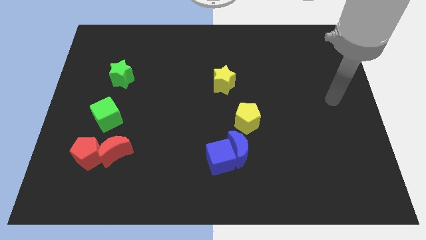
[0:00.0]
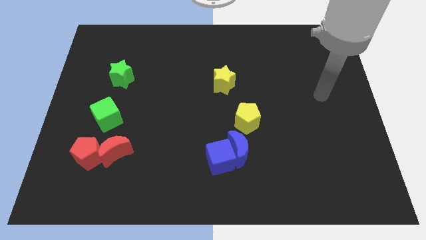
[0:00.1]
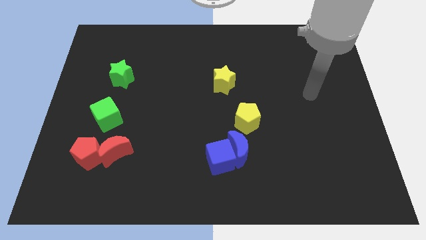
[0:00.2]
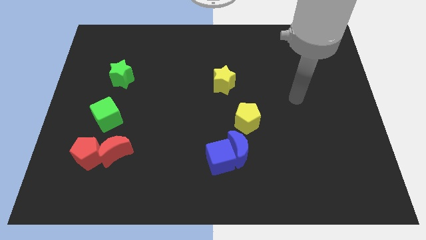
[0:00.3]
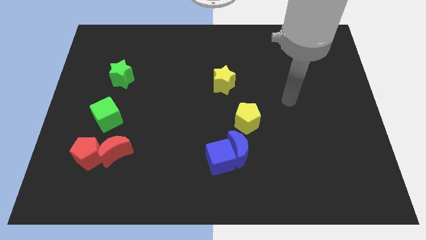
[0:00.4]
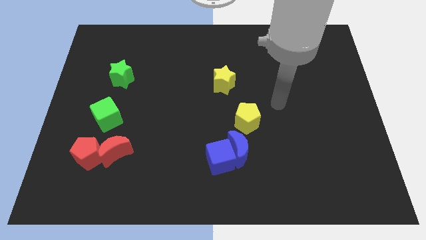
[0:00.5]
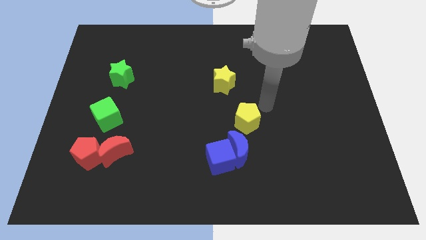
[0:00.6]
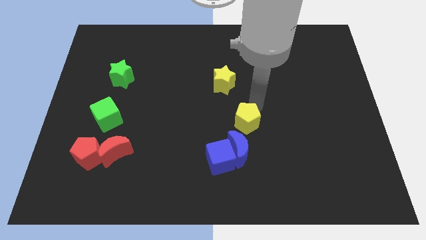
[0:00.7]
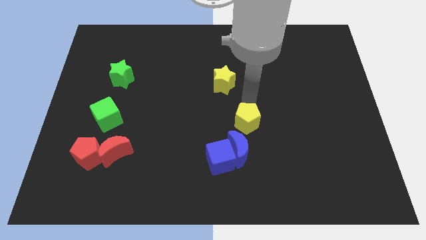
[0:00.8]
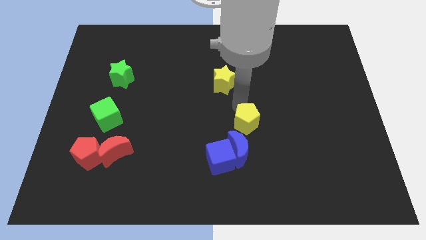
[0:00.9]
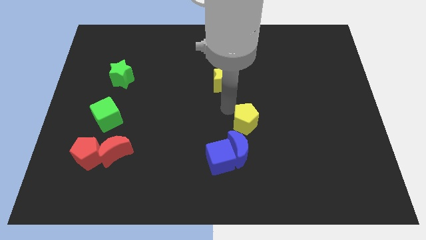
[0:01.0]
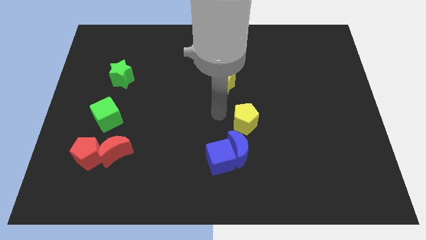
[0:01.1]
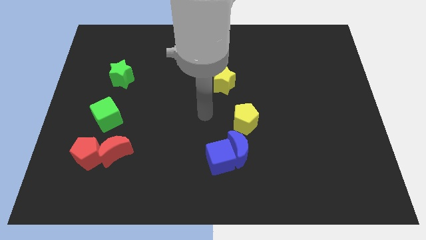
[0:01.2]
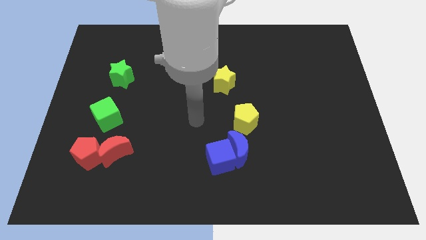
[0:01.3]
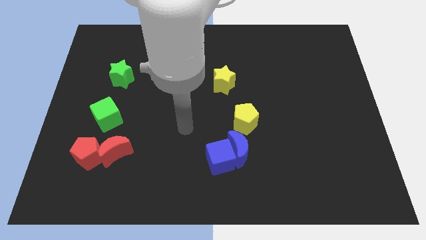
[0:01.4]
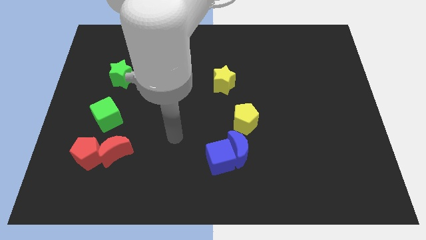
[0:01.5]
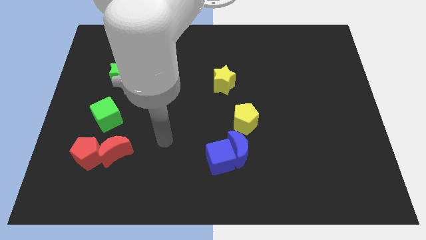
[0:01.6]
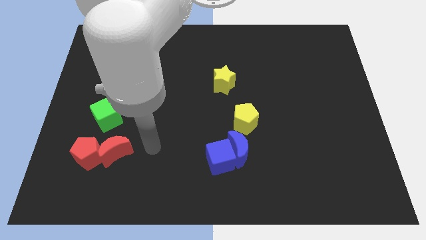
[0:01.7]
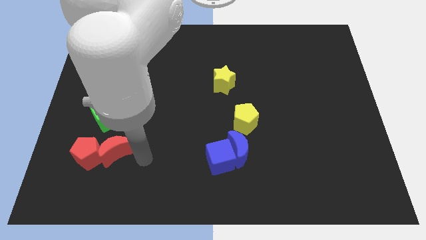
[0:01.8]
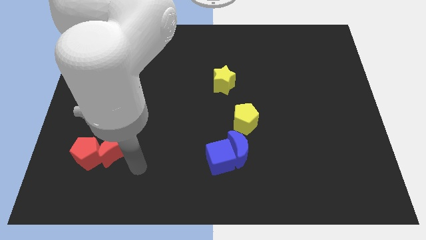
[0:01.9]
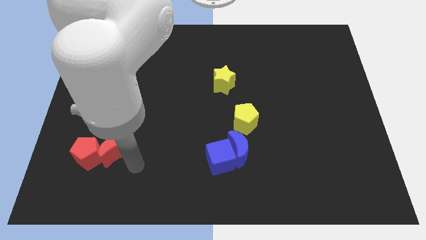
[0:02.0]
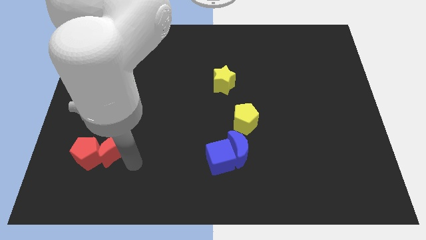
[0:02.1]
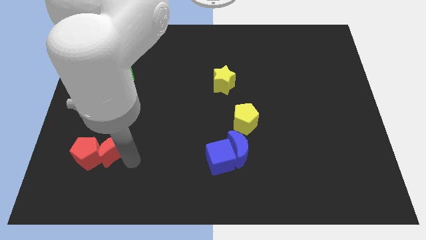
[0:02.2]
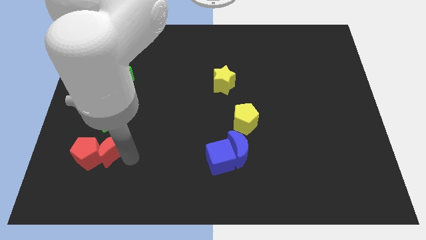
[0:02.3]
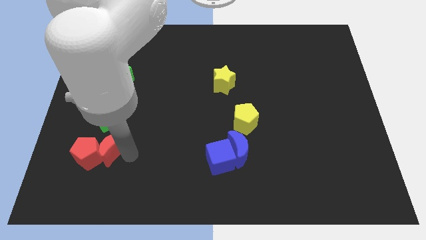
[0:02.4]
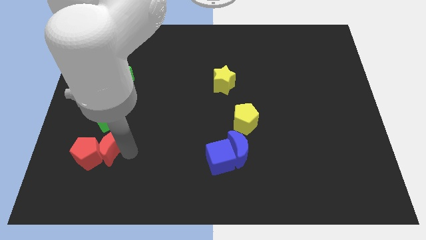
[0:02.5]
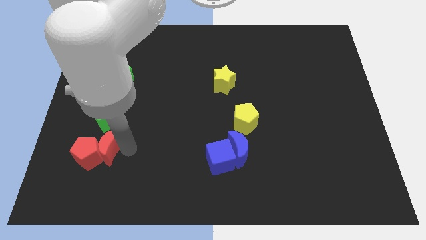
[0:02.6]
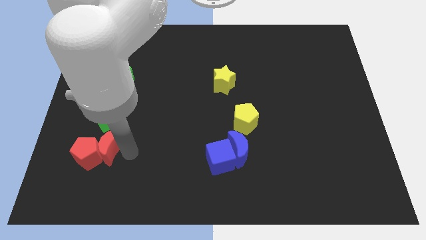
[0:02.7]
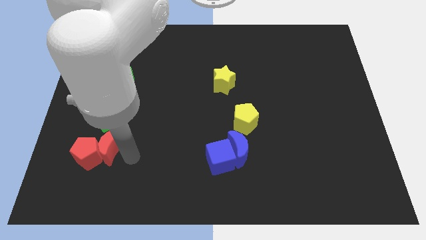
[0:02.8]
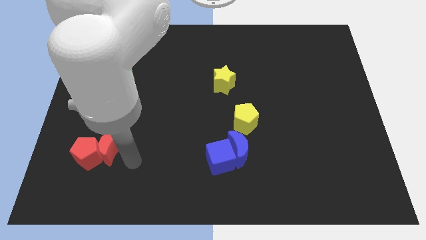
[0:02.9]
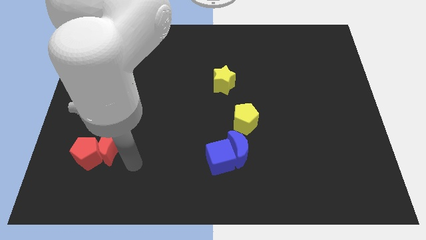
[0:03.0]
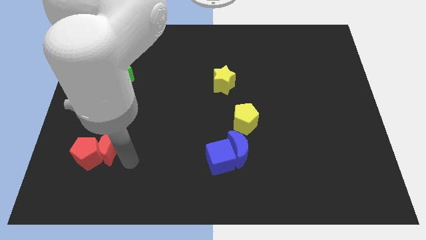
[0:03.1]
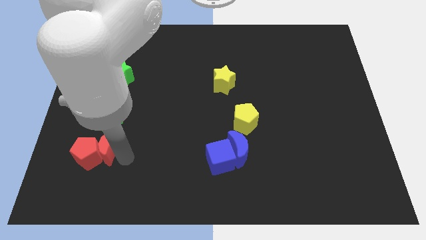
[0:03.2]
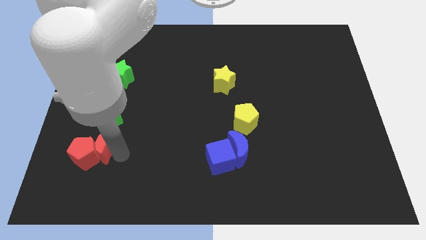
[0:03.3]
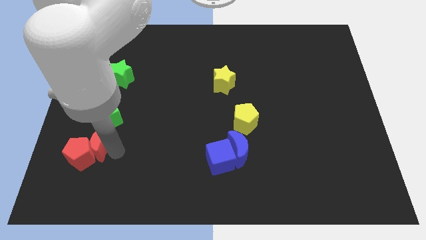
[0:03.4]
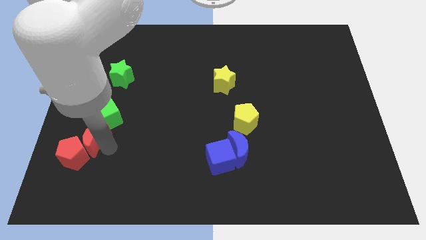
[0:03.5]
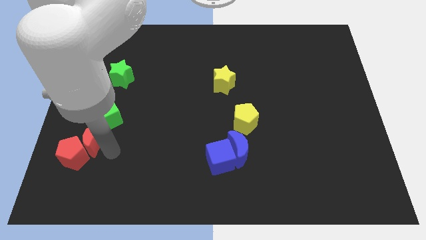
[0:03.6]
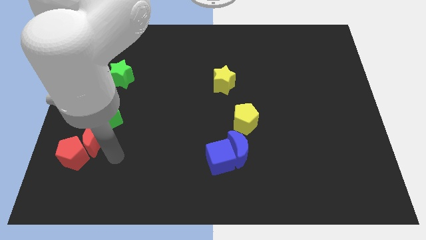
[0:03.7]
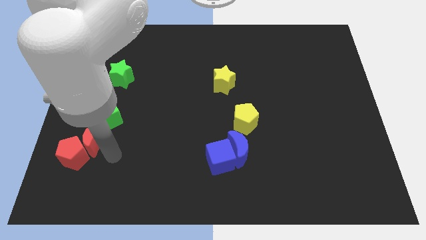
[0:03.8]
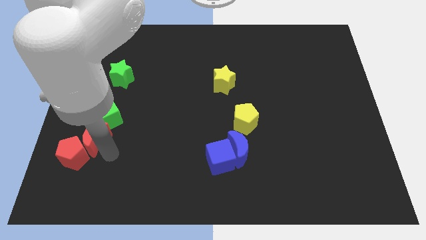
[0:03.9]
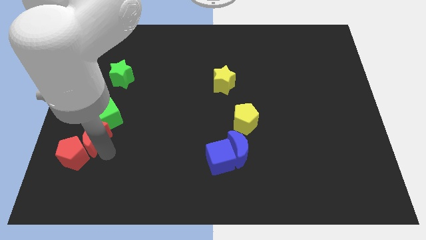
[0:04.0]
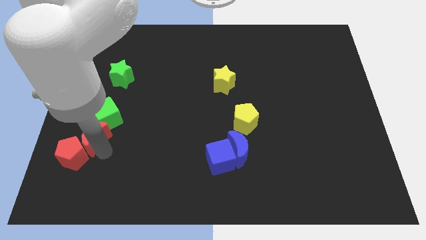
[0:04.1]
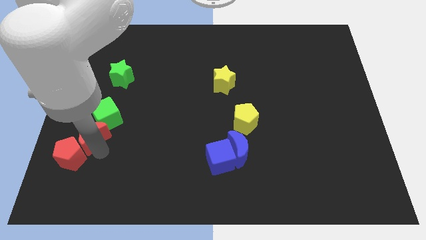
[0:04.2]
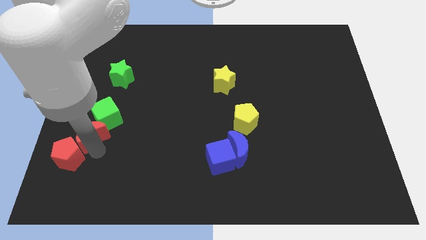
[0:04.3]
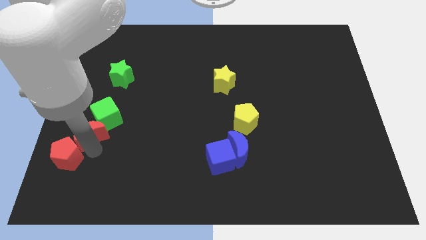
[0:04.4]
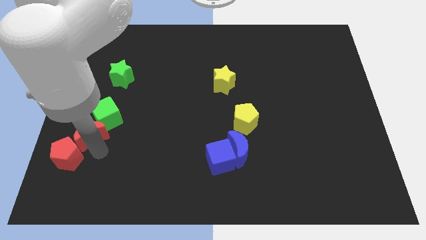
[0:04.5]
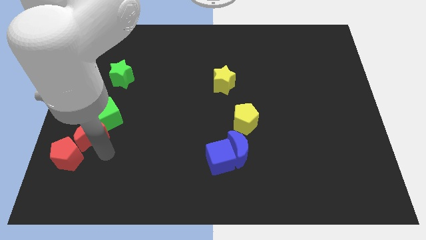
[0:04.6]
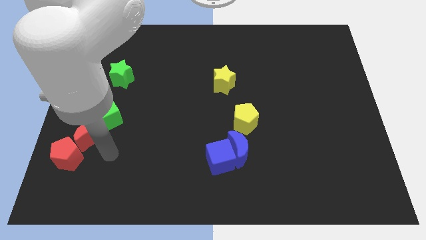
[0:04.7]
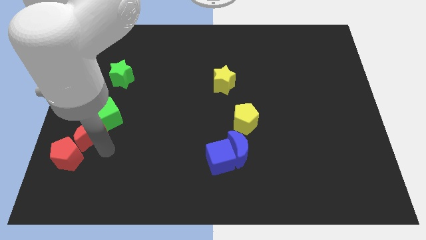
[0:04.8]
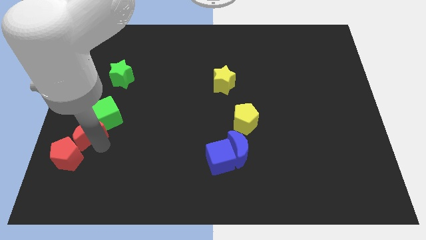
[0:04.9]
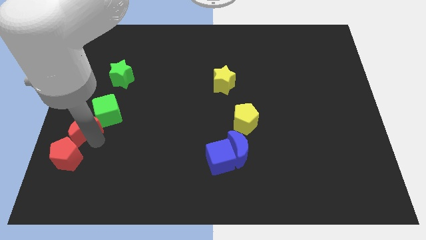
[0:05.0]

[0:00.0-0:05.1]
slide the red moon to the left side of the board

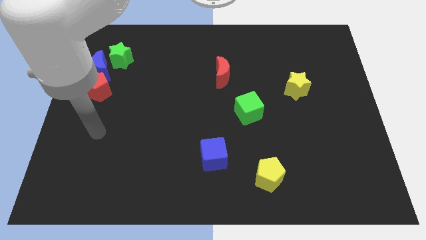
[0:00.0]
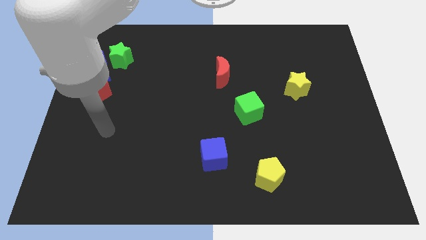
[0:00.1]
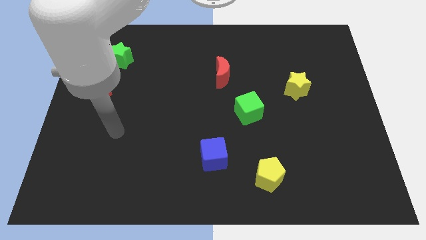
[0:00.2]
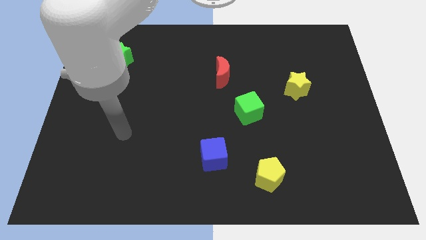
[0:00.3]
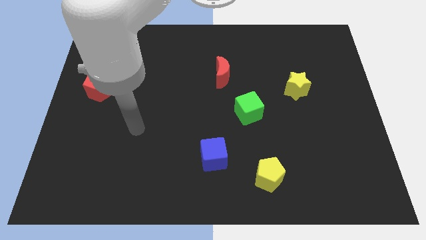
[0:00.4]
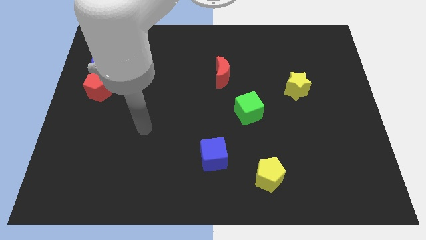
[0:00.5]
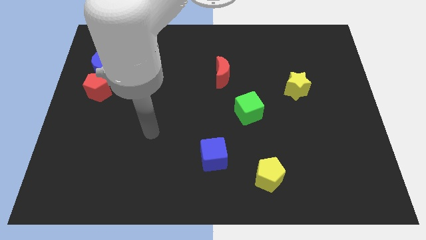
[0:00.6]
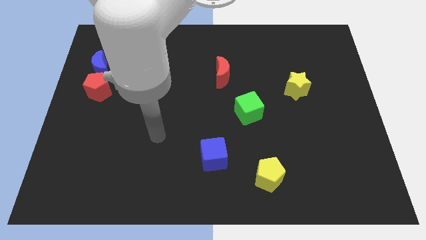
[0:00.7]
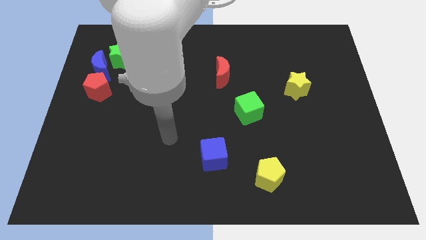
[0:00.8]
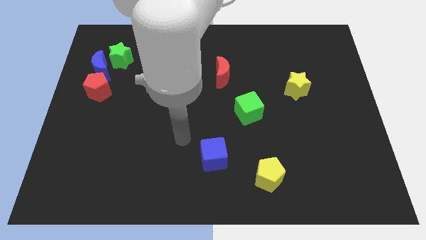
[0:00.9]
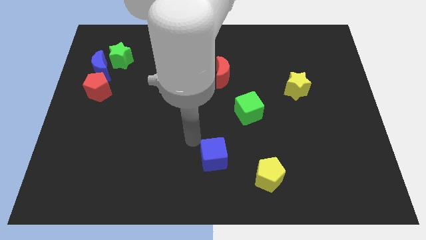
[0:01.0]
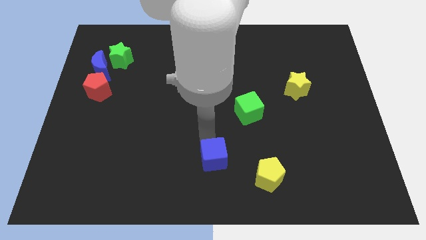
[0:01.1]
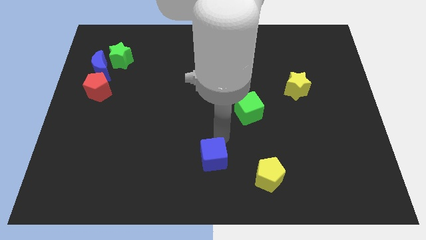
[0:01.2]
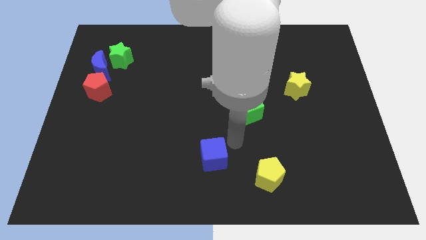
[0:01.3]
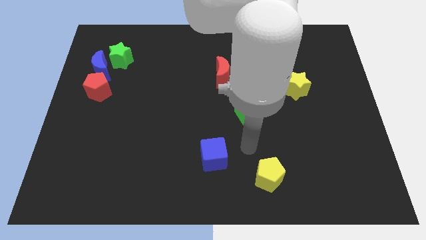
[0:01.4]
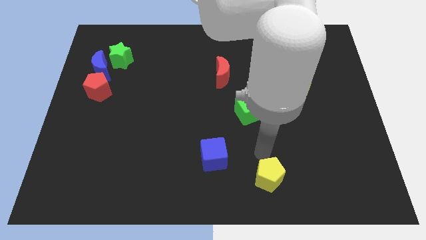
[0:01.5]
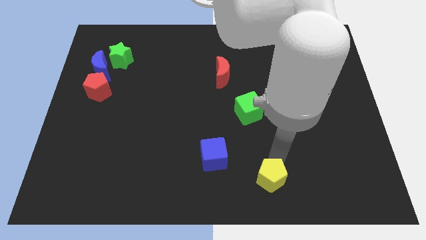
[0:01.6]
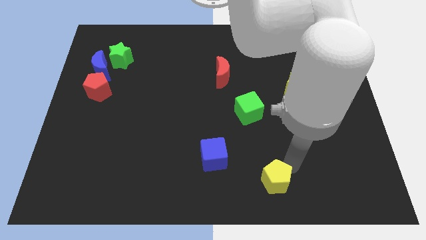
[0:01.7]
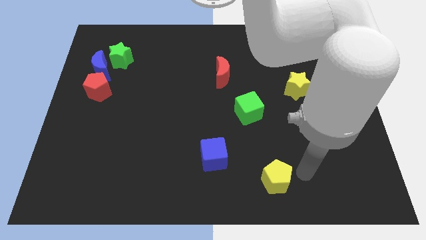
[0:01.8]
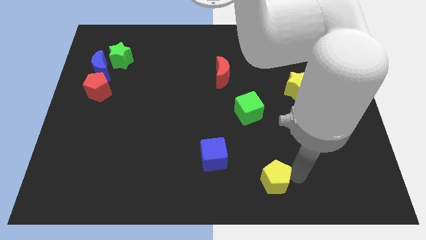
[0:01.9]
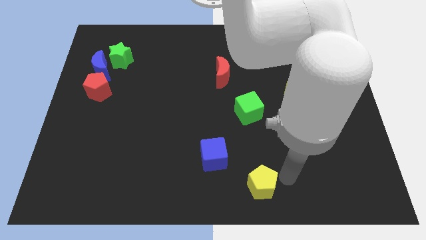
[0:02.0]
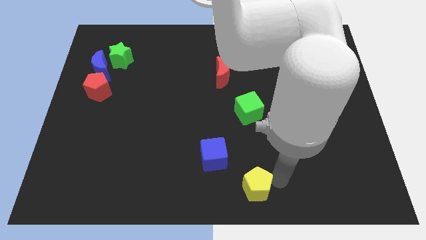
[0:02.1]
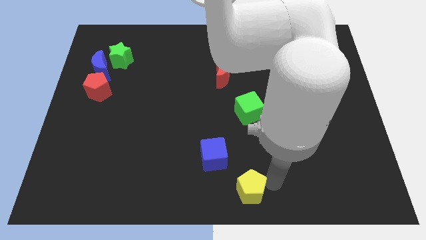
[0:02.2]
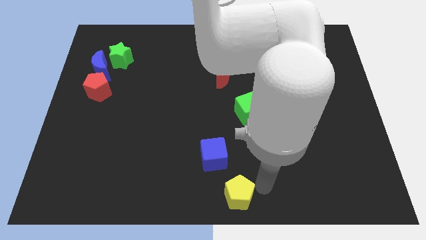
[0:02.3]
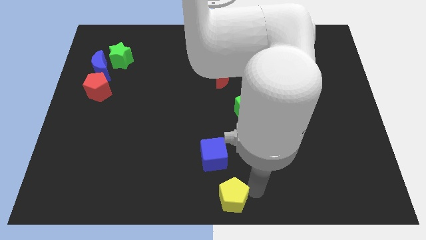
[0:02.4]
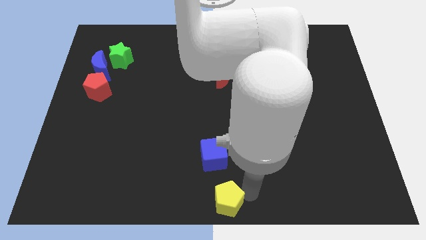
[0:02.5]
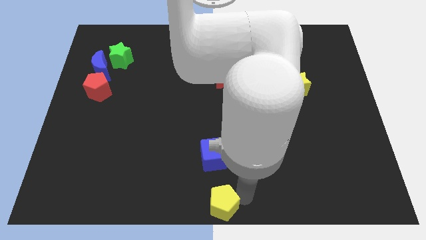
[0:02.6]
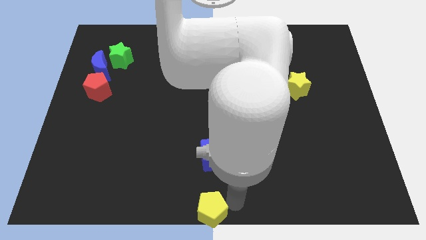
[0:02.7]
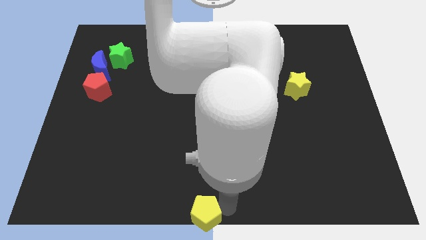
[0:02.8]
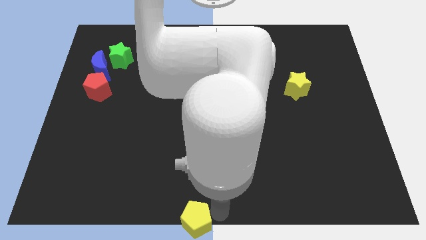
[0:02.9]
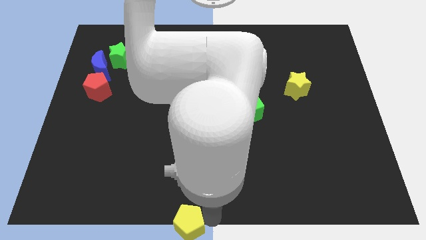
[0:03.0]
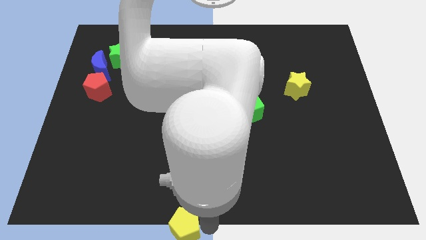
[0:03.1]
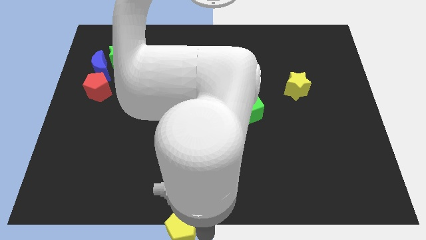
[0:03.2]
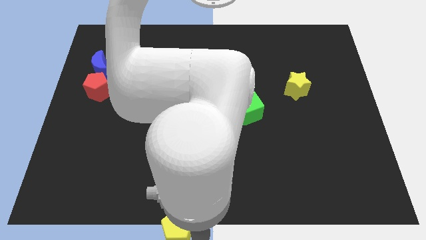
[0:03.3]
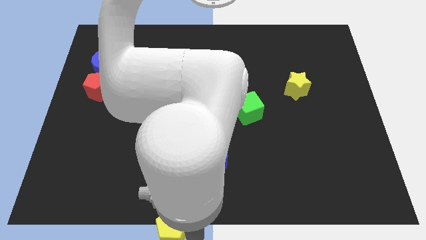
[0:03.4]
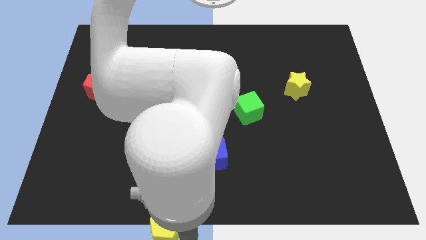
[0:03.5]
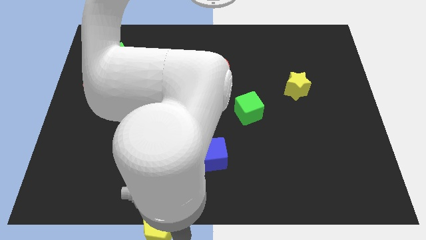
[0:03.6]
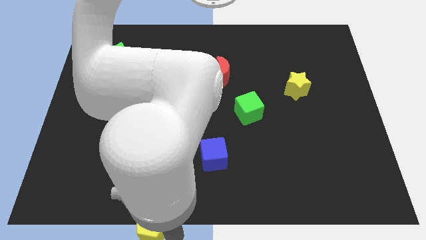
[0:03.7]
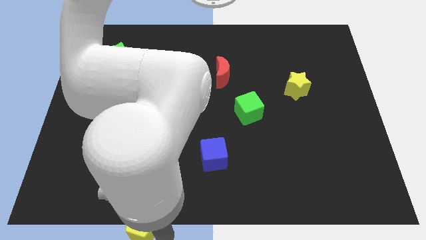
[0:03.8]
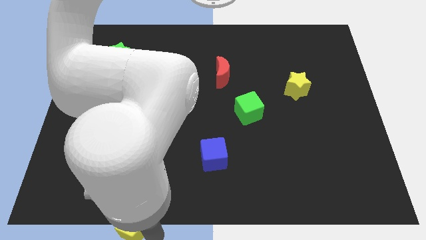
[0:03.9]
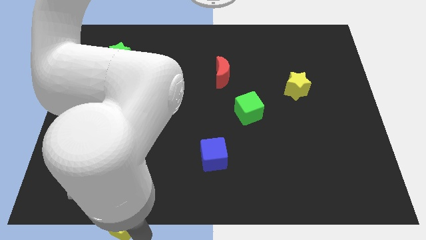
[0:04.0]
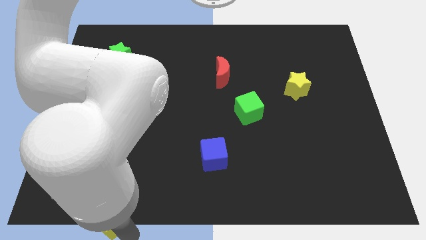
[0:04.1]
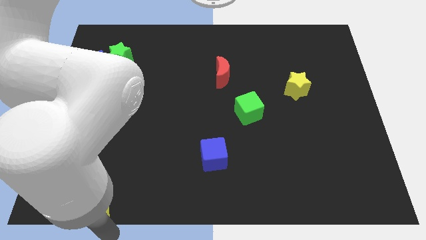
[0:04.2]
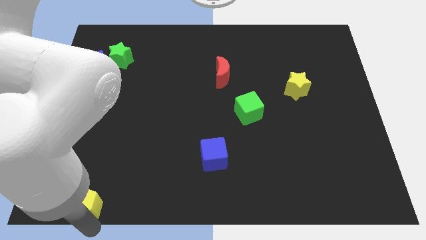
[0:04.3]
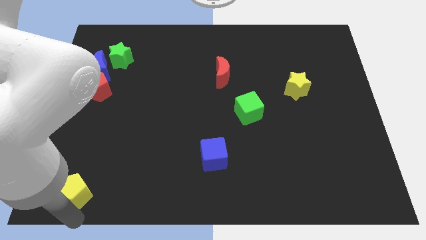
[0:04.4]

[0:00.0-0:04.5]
push the yellow pentagon to the bottom left of the board
